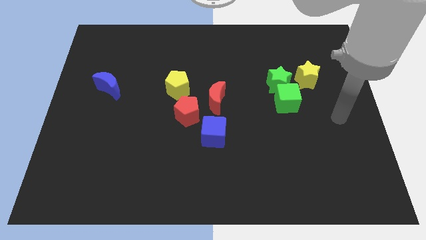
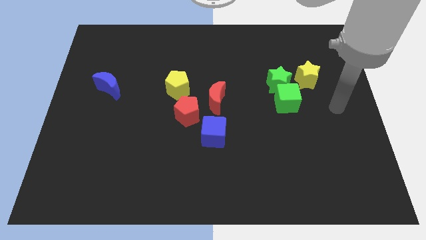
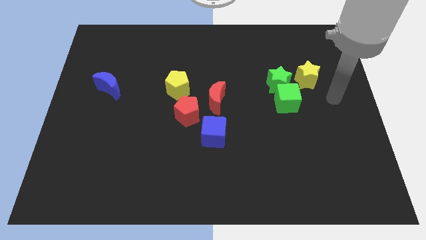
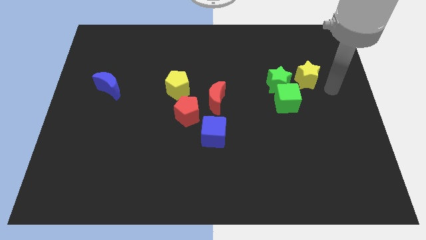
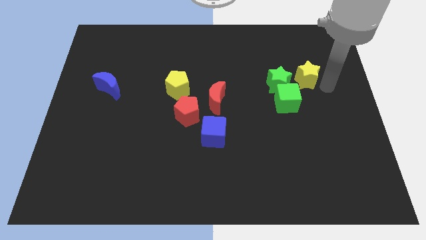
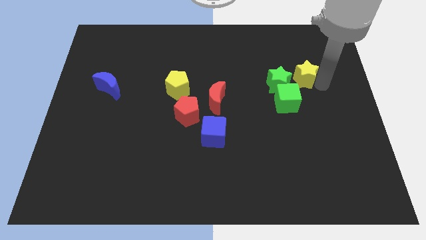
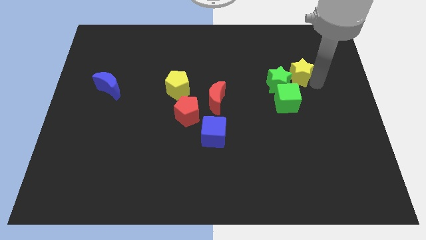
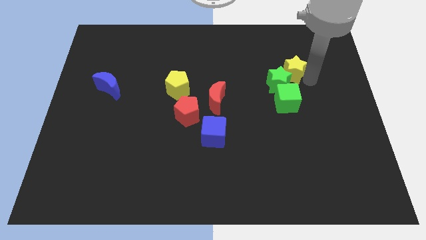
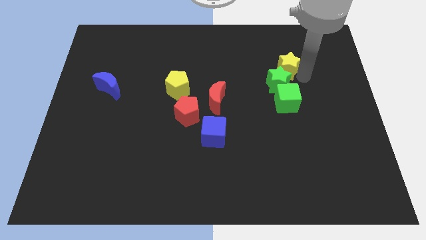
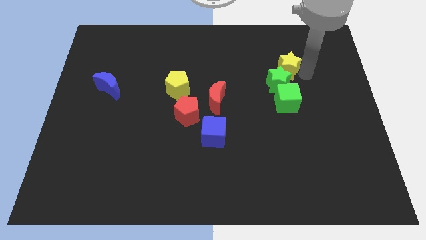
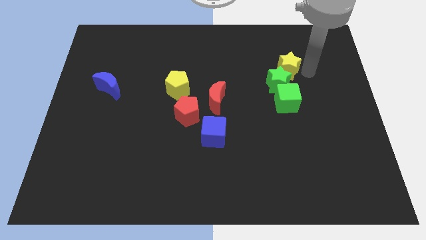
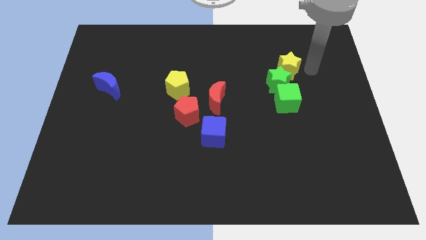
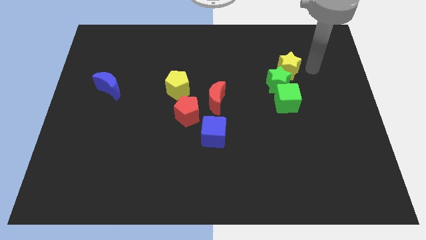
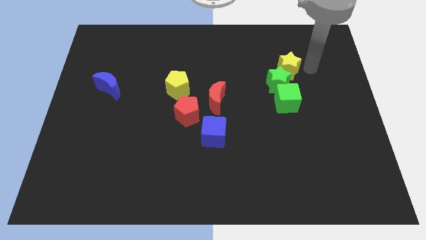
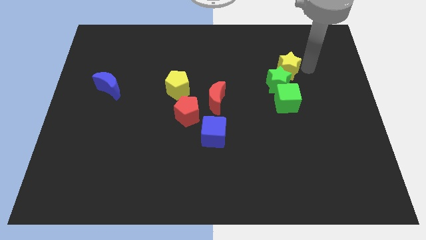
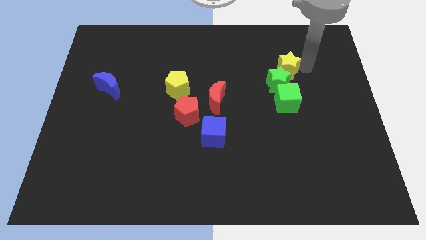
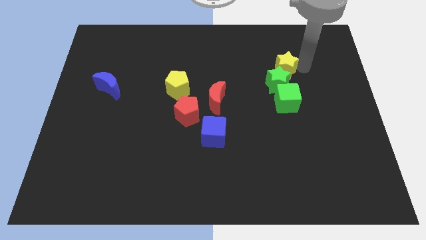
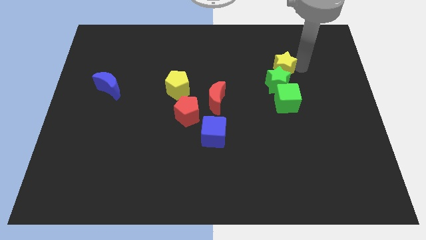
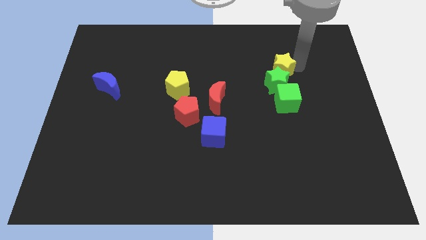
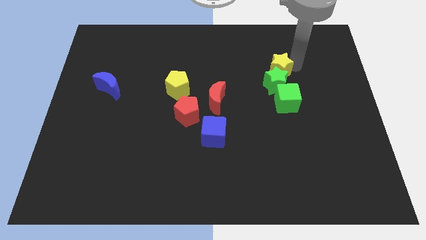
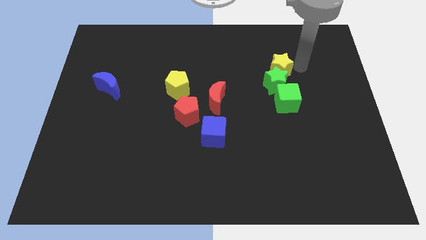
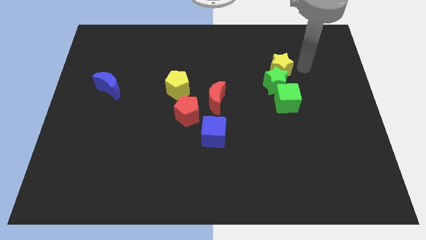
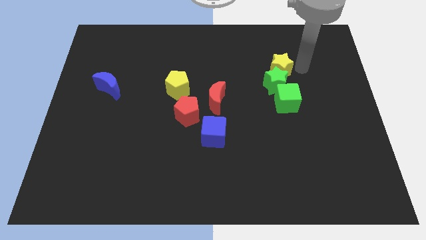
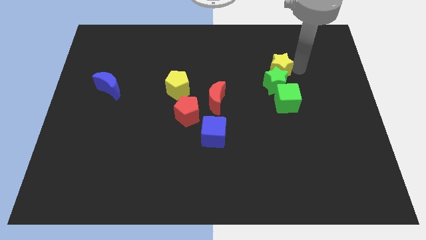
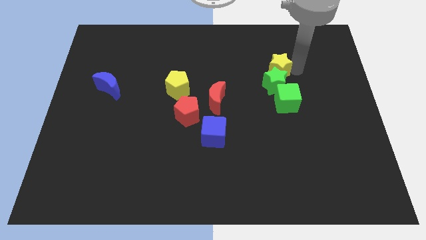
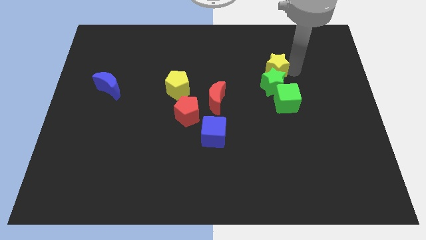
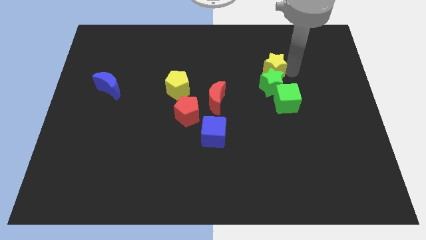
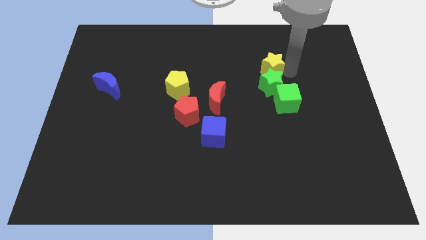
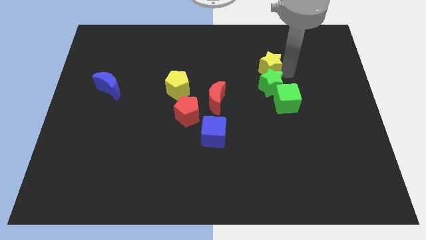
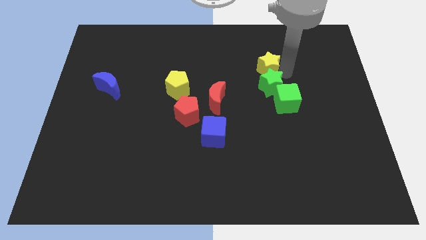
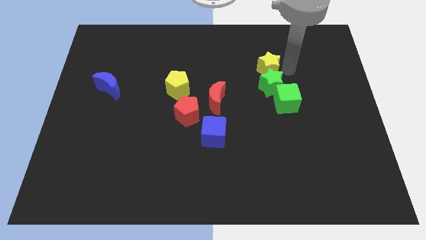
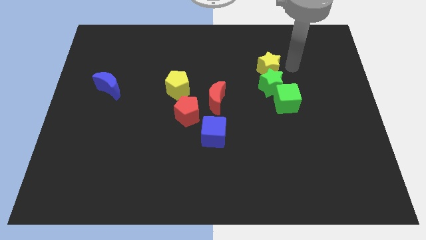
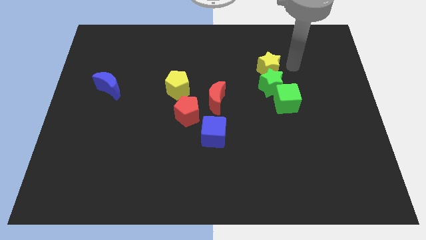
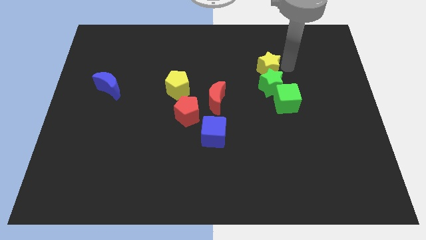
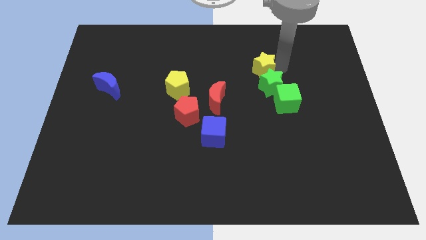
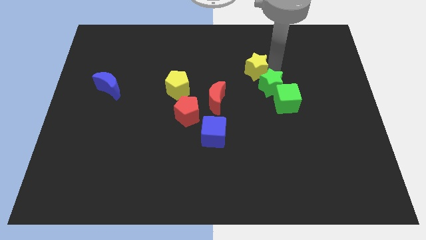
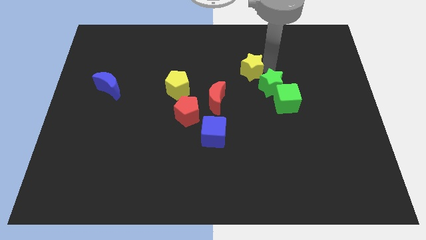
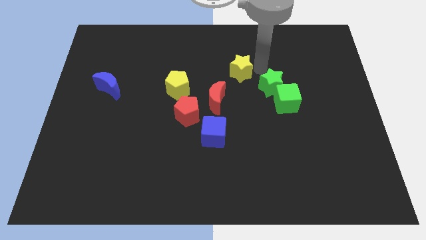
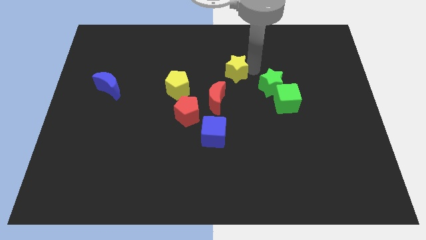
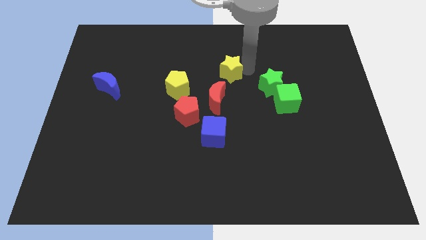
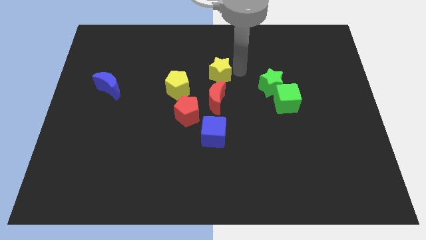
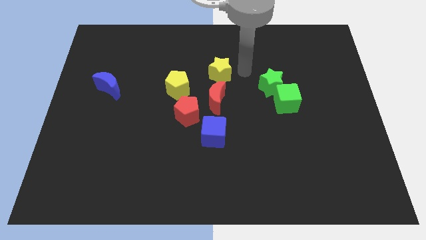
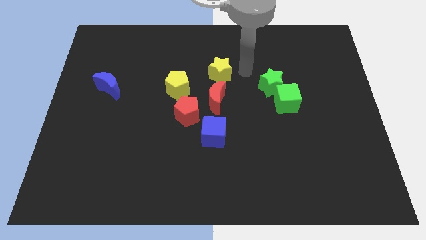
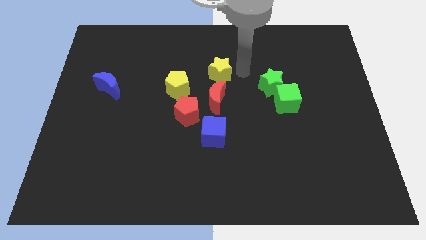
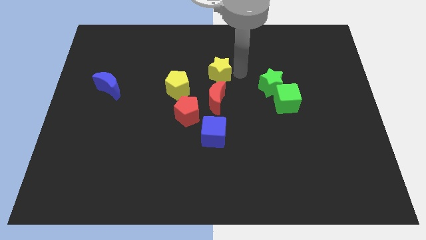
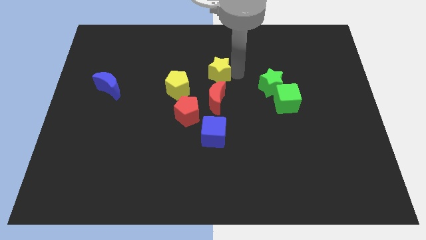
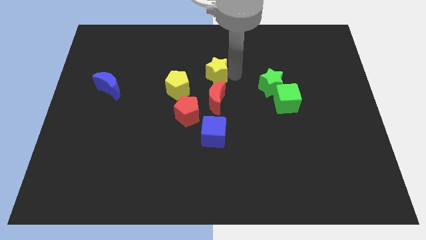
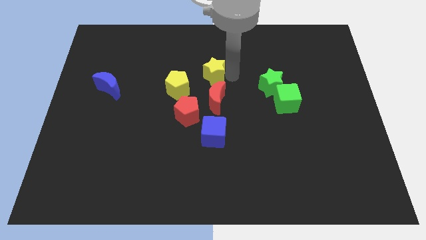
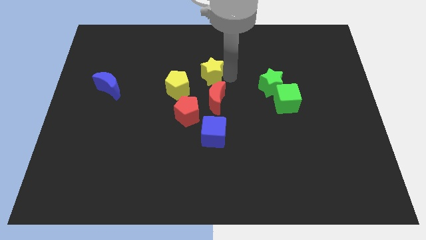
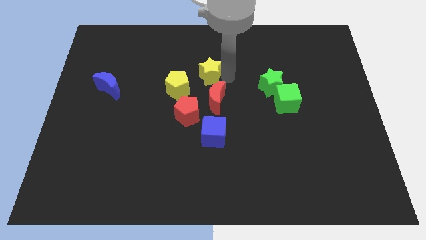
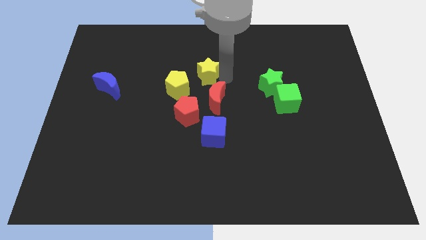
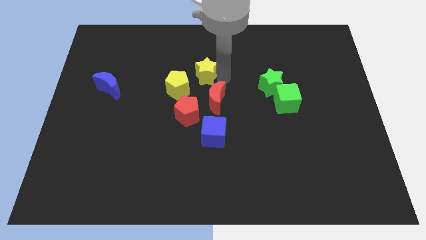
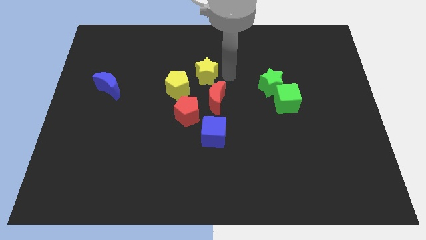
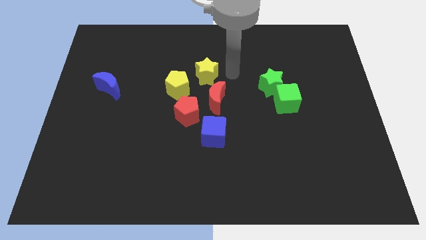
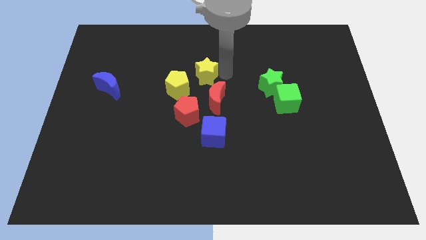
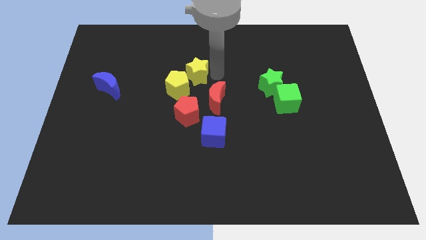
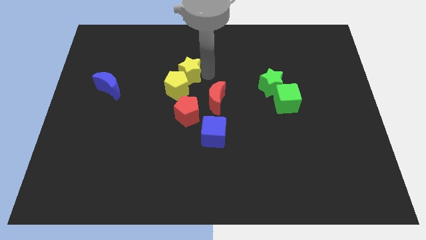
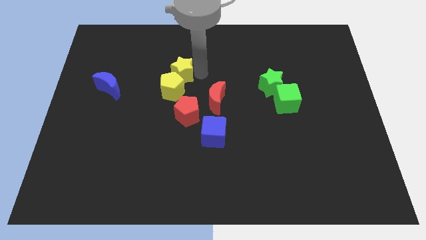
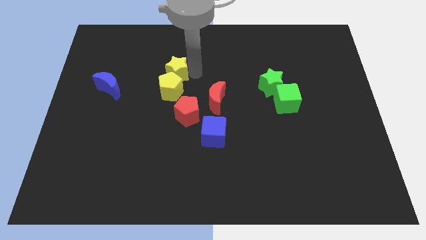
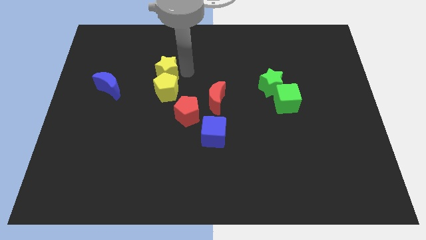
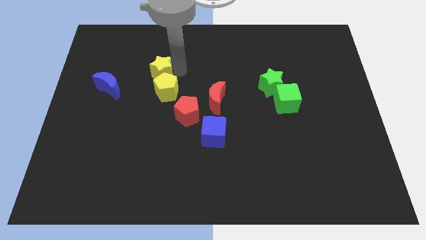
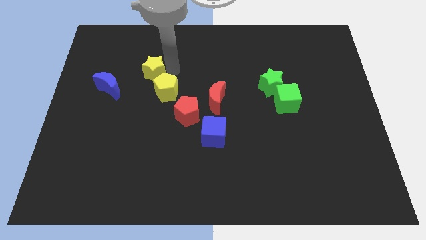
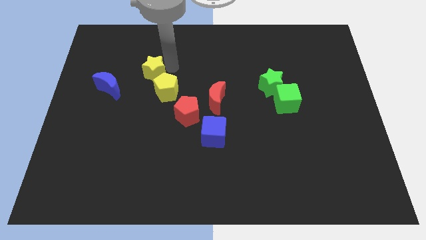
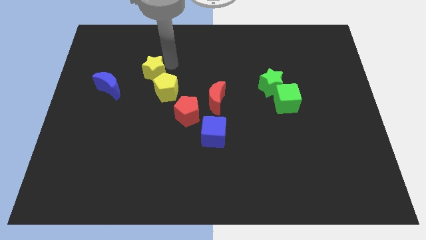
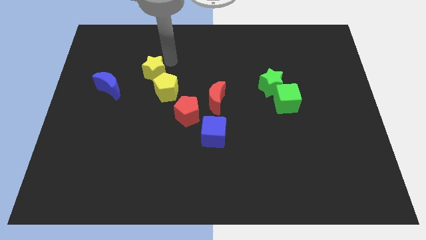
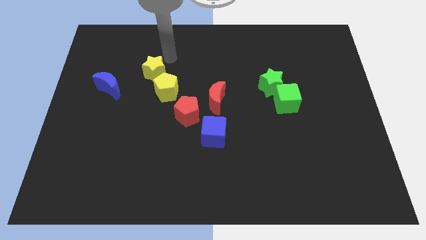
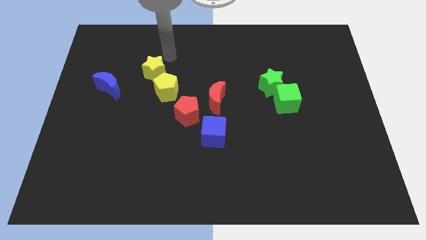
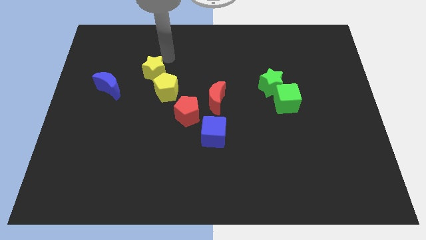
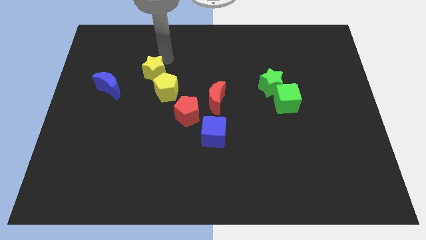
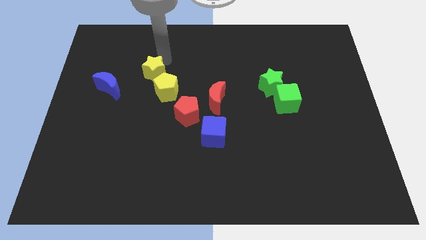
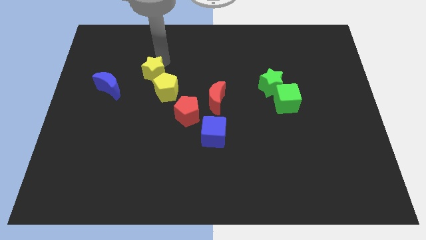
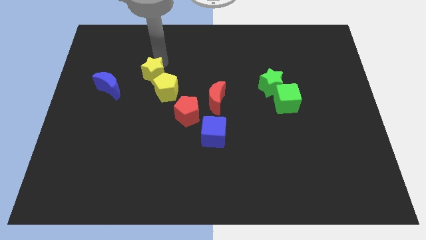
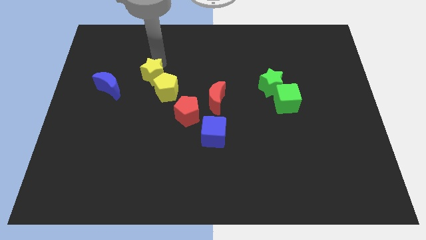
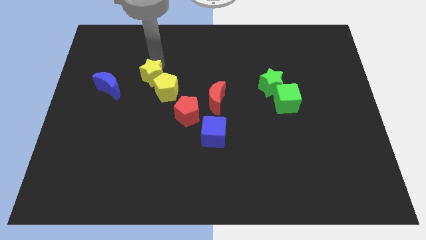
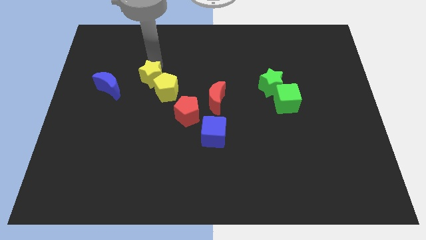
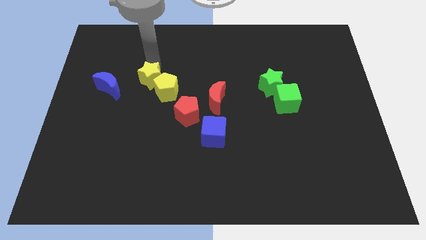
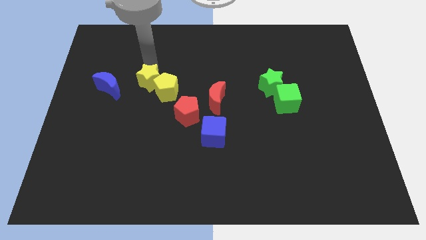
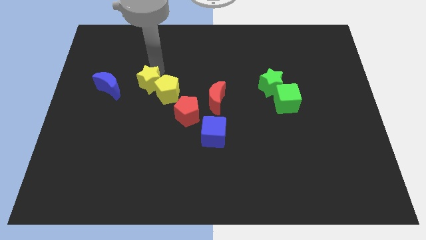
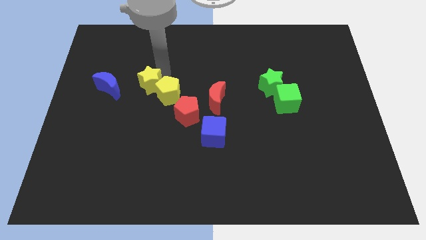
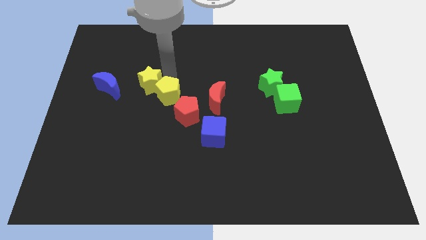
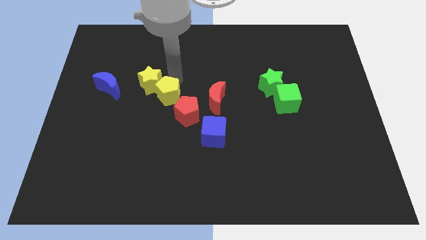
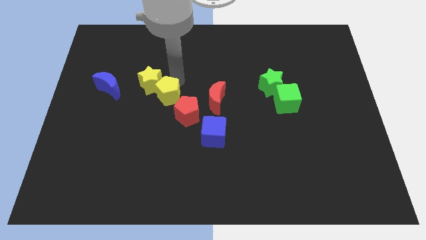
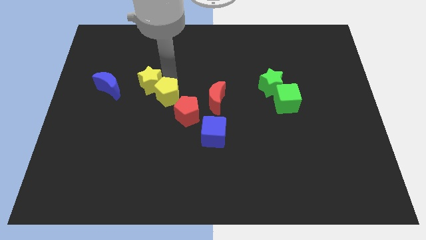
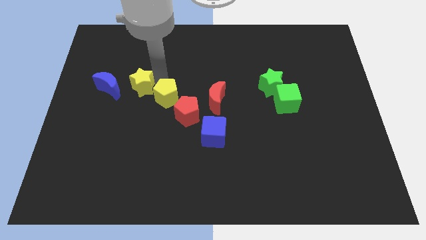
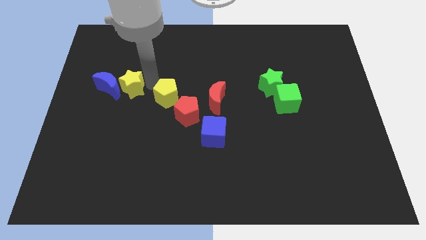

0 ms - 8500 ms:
move the yellow star to the blue moon
